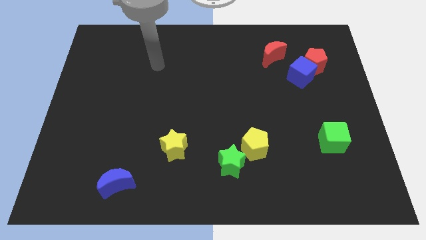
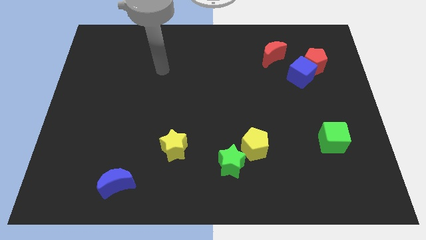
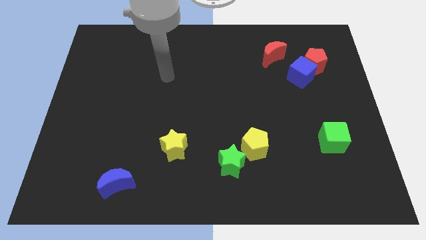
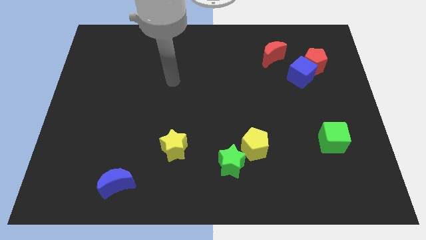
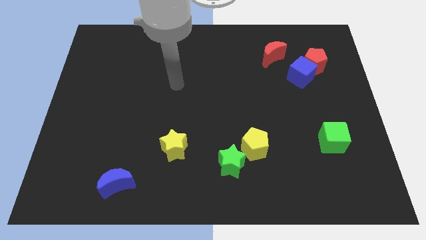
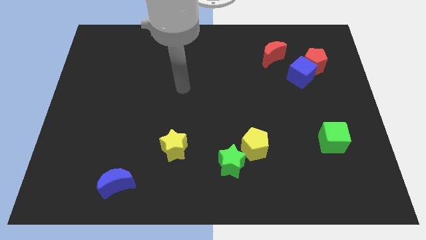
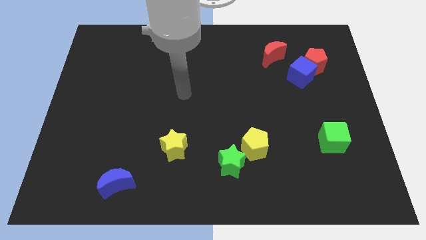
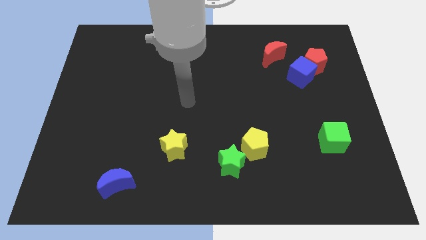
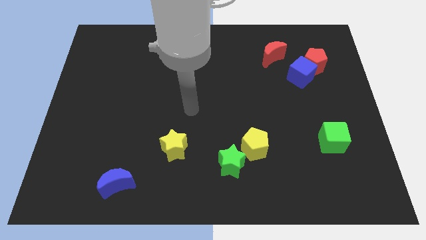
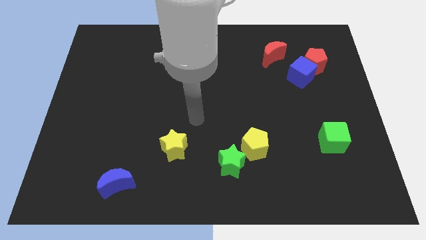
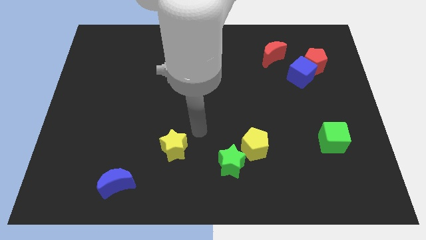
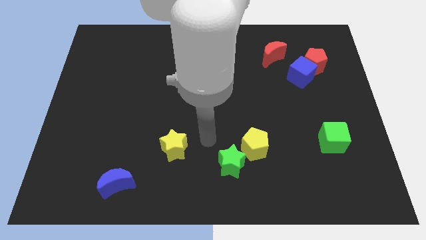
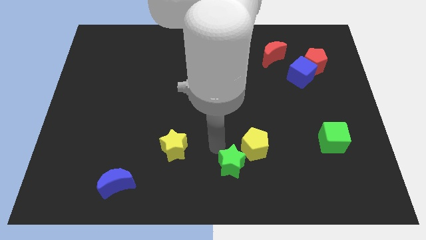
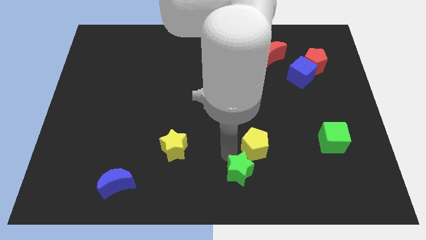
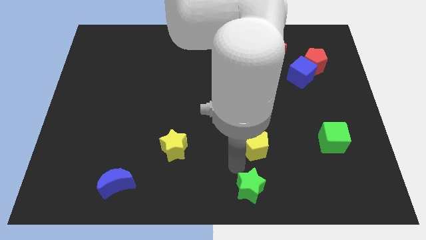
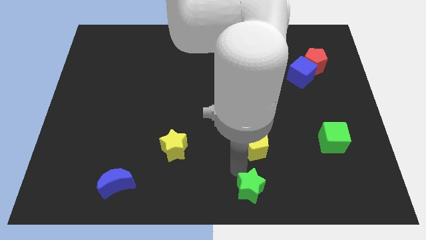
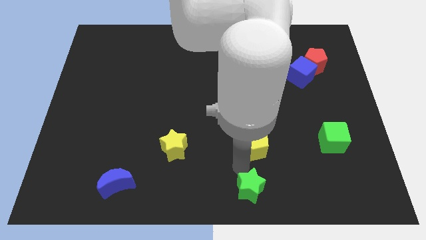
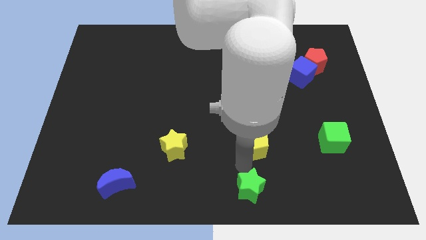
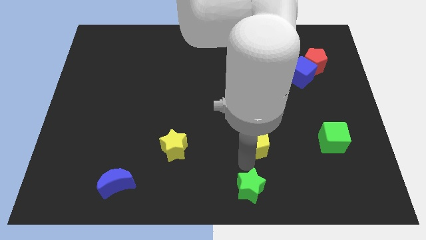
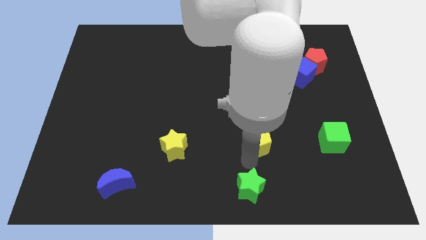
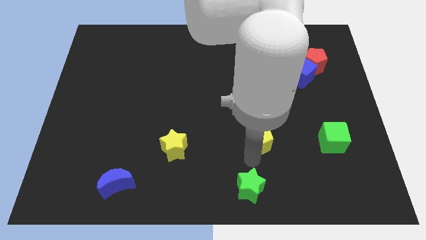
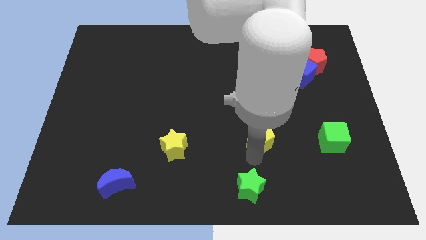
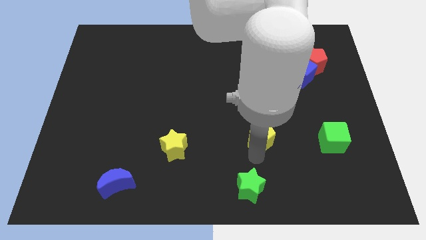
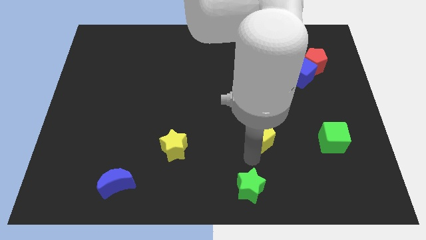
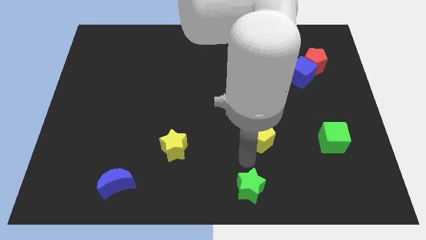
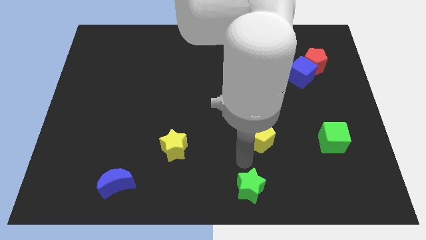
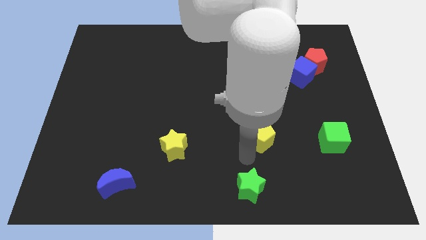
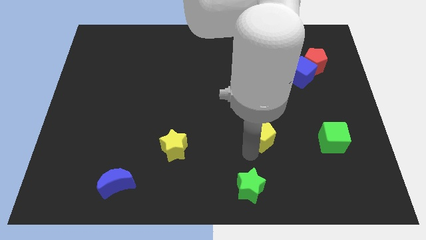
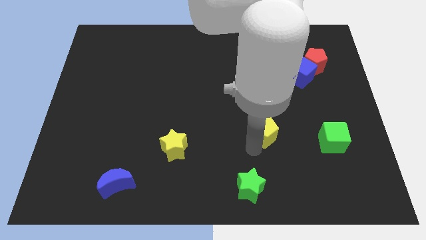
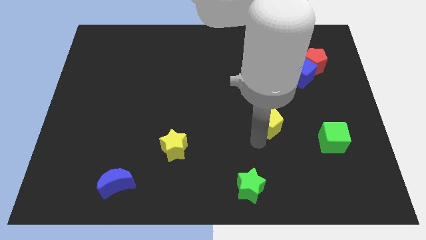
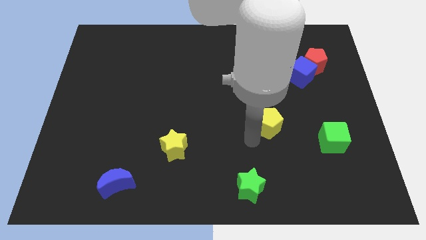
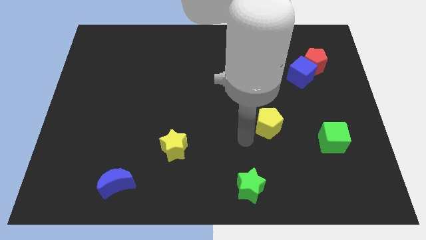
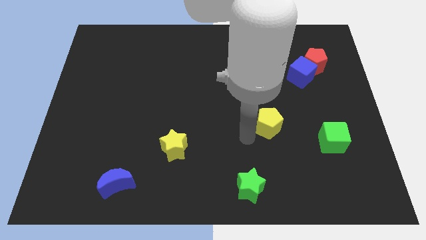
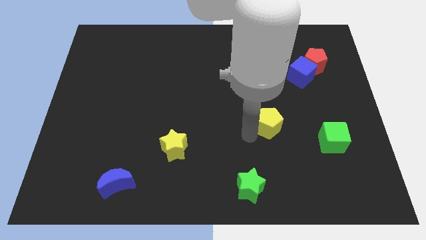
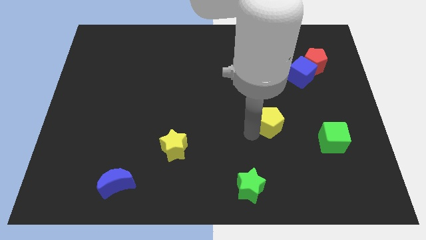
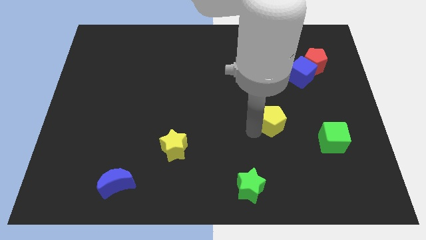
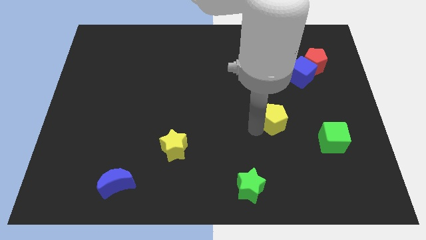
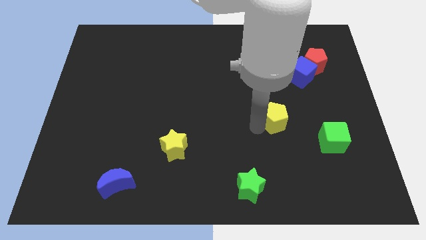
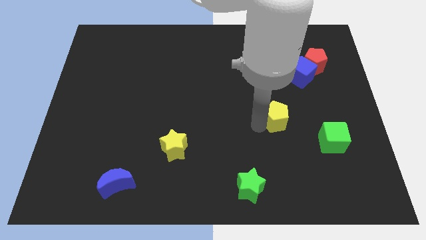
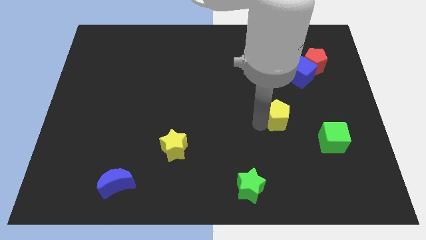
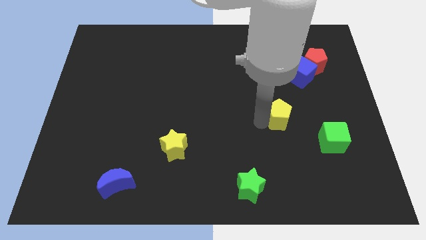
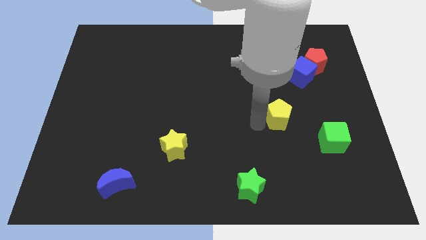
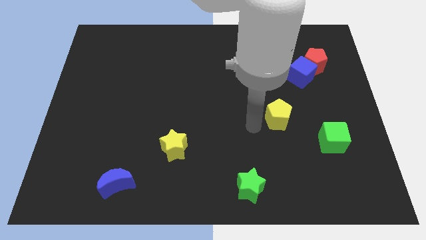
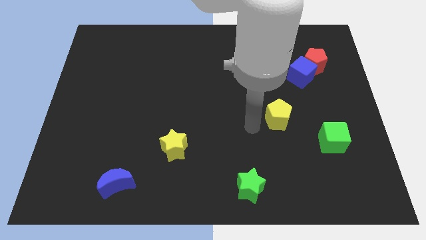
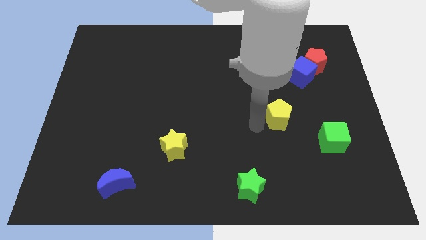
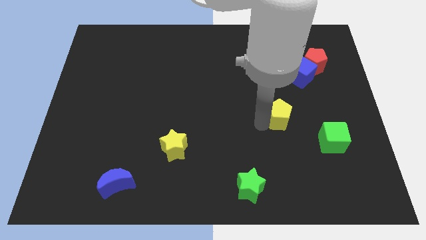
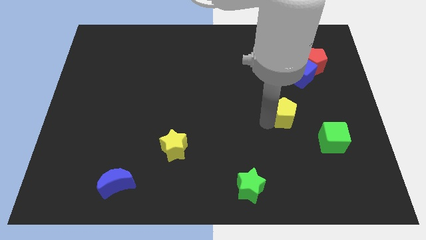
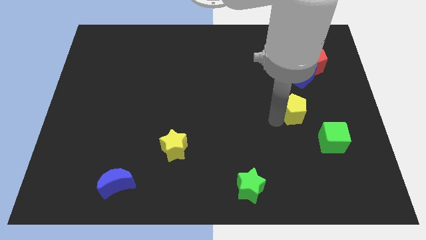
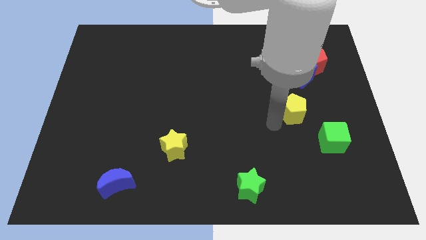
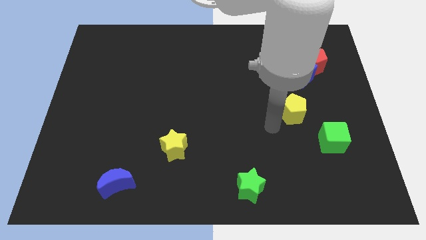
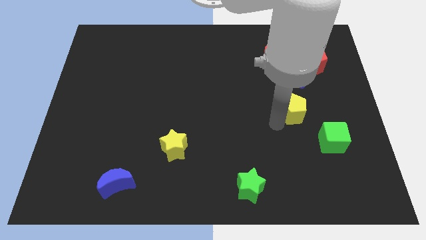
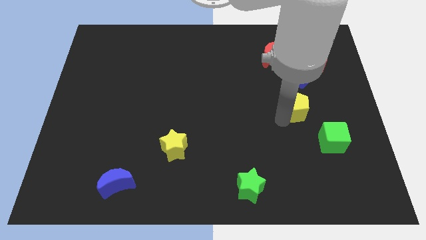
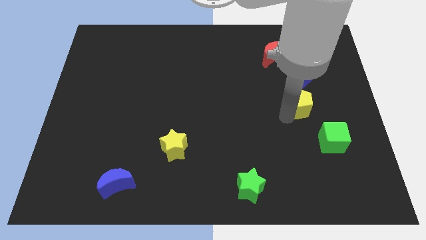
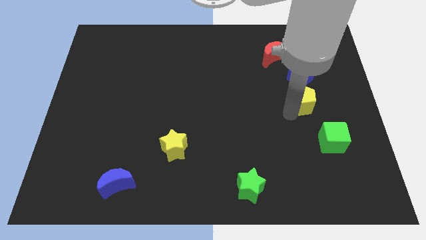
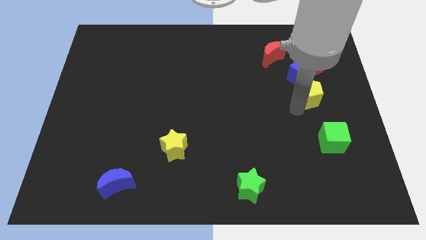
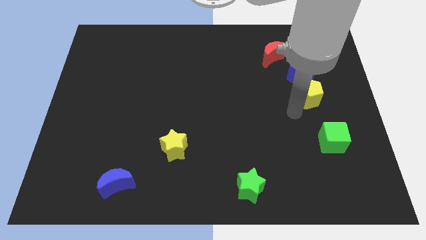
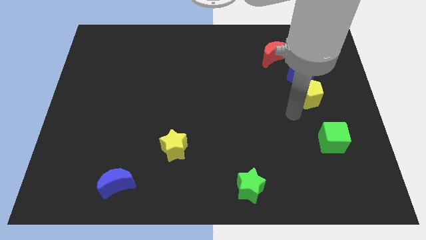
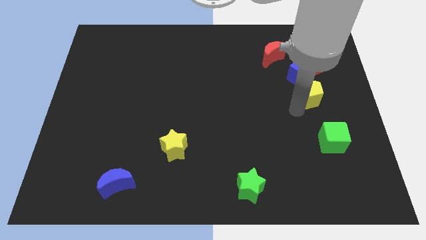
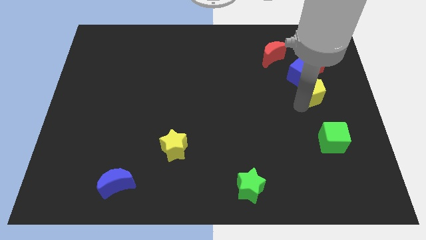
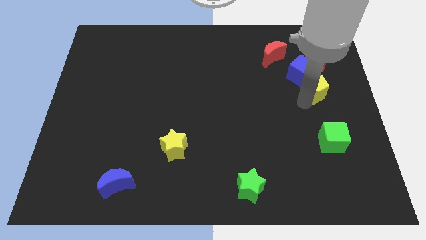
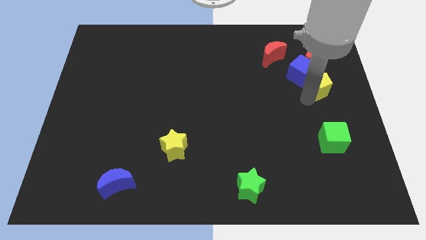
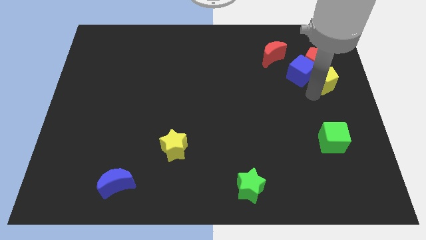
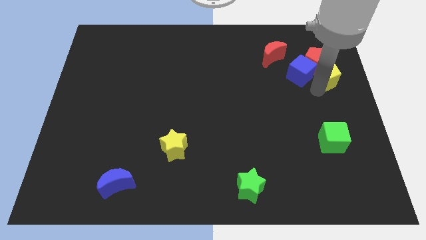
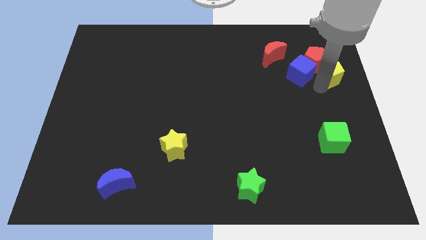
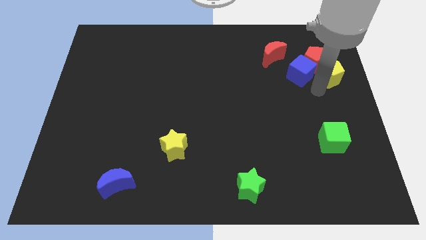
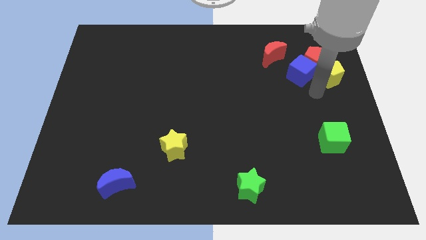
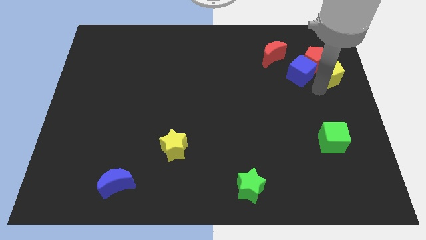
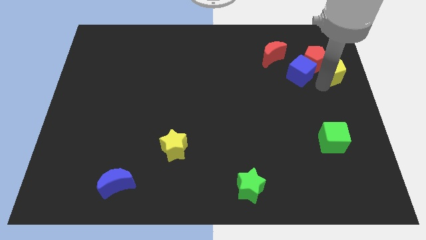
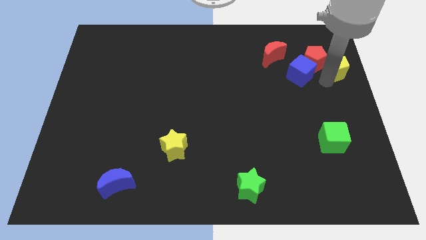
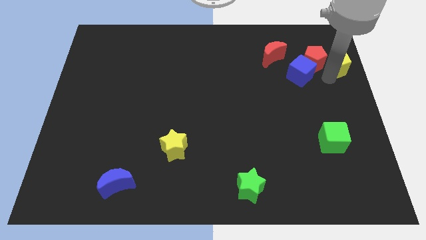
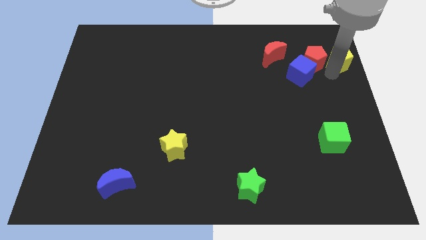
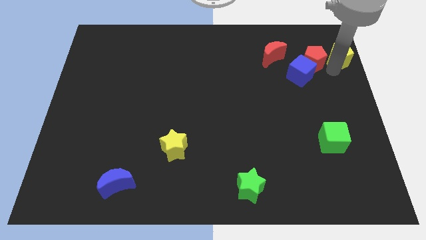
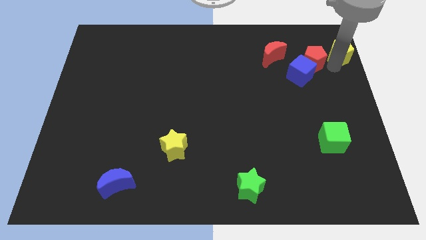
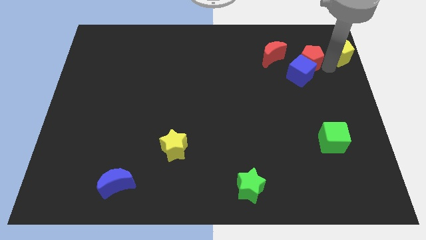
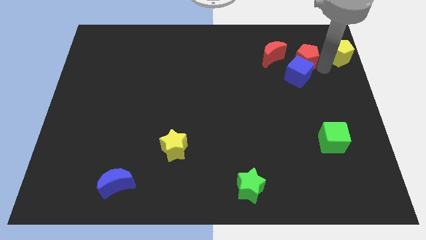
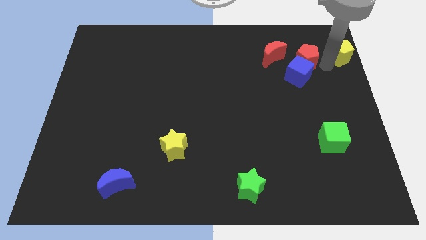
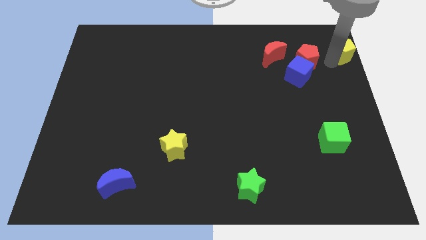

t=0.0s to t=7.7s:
put the yellow pentagon to the top right of the board
